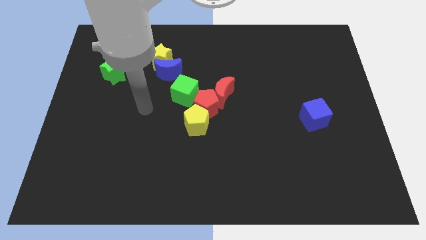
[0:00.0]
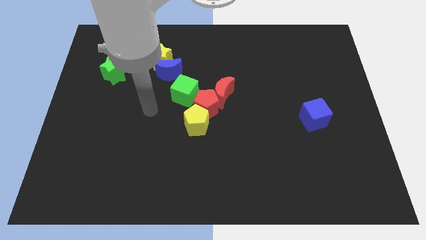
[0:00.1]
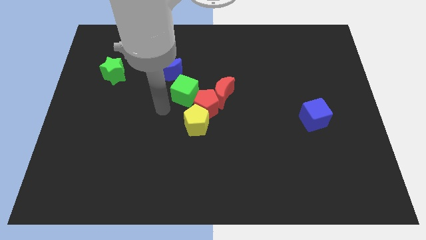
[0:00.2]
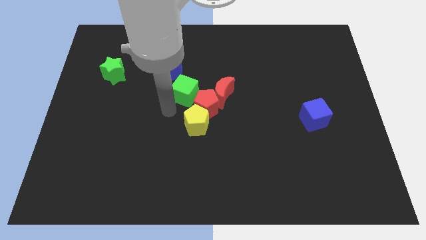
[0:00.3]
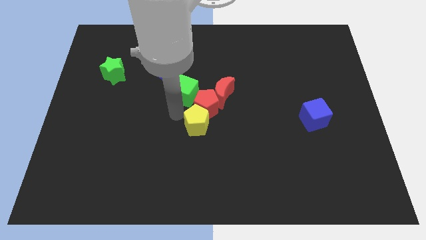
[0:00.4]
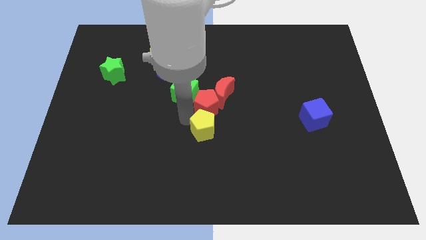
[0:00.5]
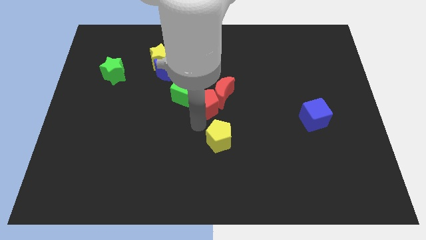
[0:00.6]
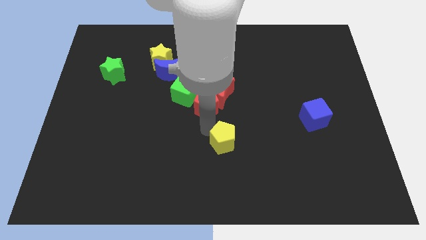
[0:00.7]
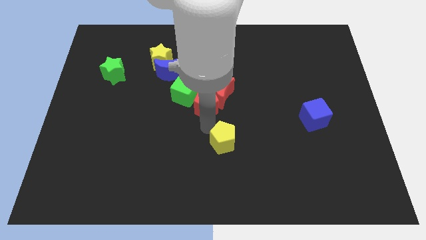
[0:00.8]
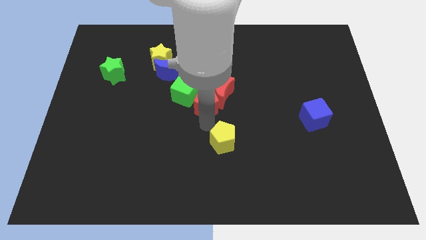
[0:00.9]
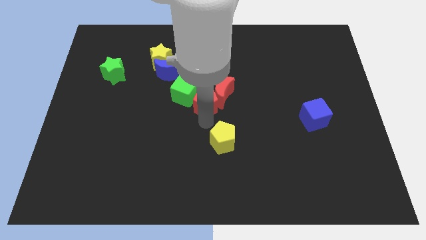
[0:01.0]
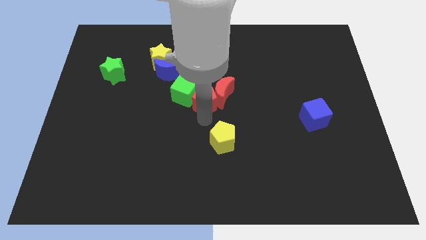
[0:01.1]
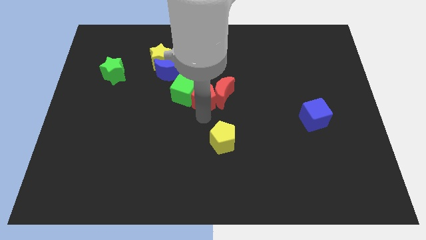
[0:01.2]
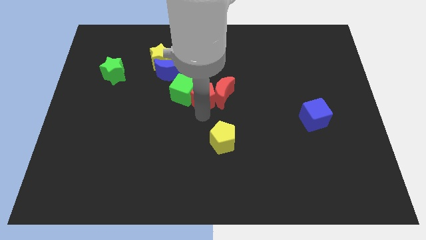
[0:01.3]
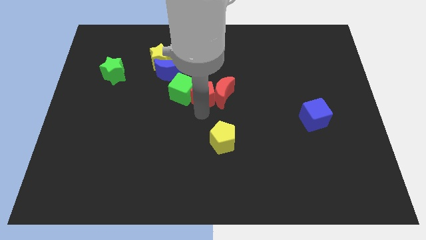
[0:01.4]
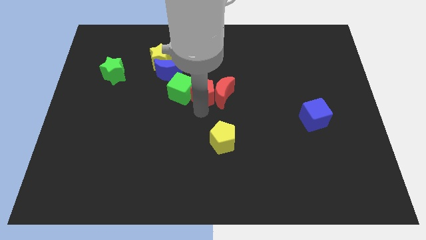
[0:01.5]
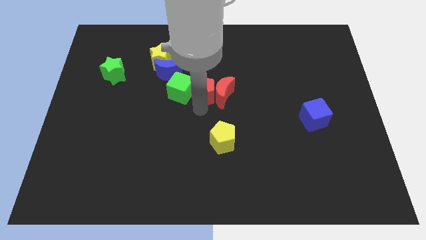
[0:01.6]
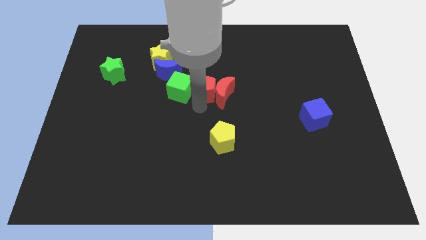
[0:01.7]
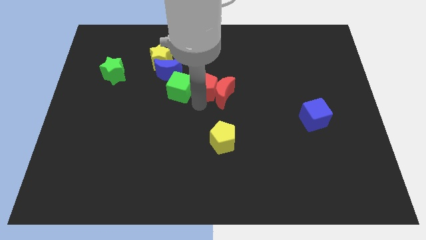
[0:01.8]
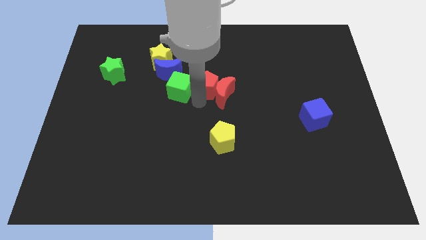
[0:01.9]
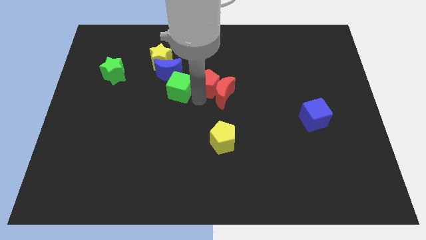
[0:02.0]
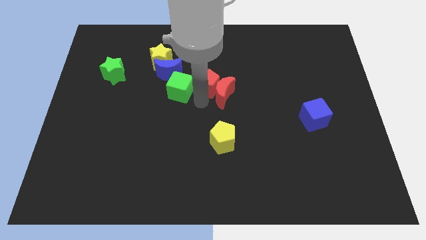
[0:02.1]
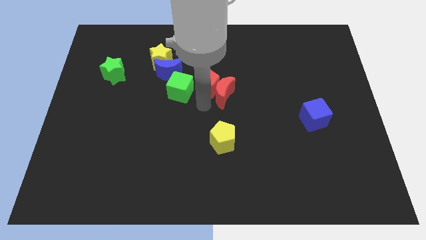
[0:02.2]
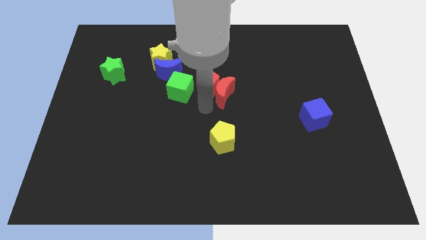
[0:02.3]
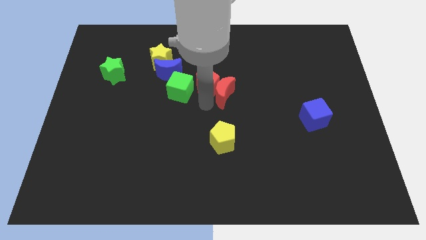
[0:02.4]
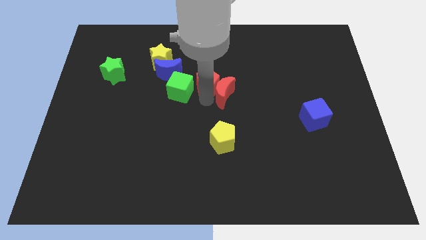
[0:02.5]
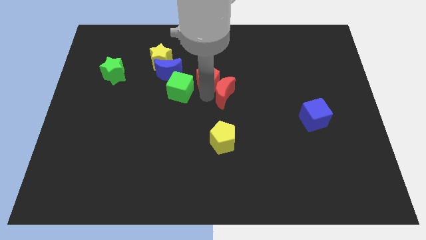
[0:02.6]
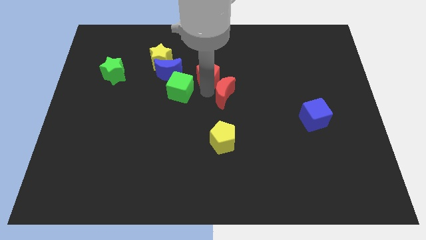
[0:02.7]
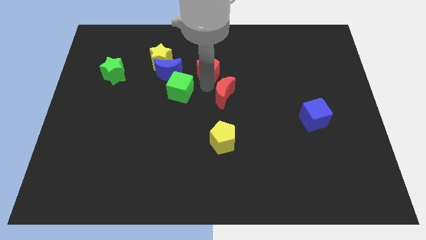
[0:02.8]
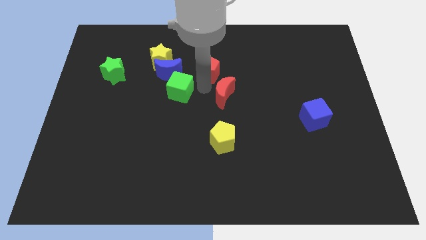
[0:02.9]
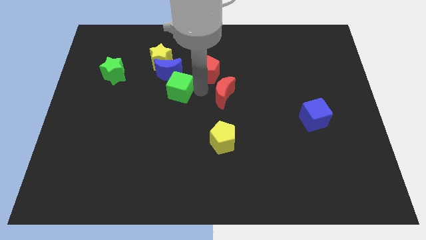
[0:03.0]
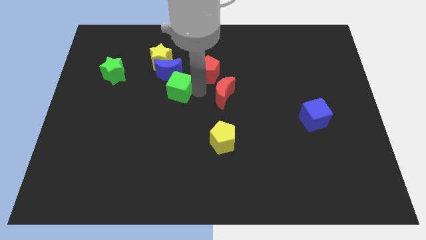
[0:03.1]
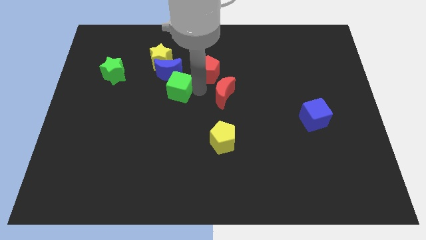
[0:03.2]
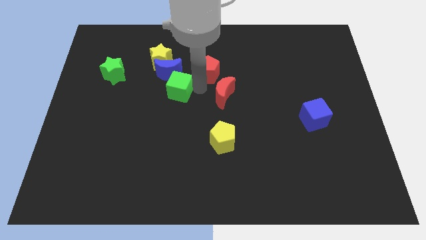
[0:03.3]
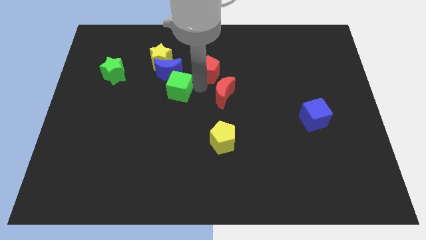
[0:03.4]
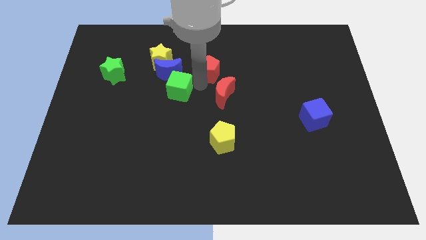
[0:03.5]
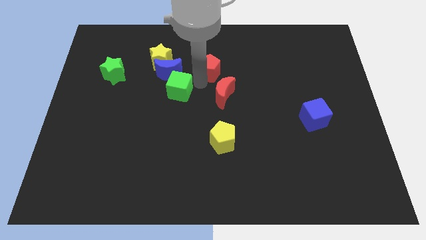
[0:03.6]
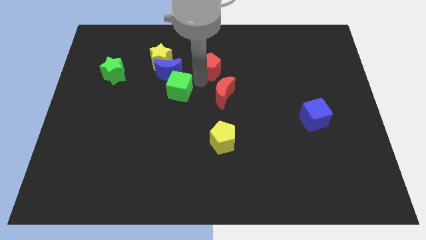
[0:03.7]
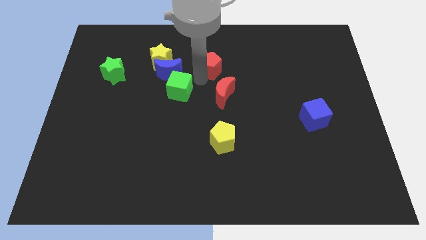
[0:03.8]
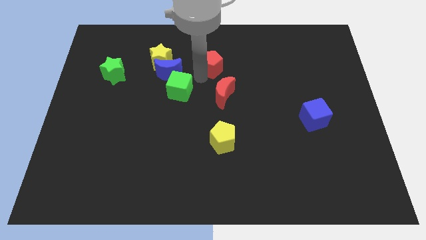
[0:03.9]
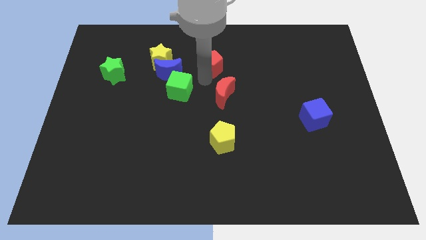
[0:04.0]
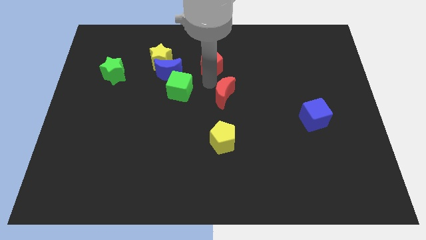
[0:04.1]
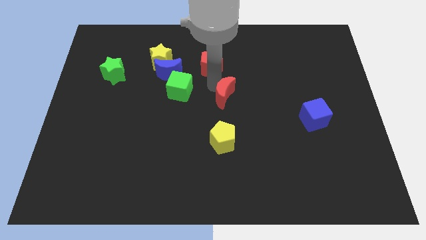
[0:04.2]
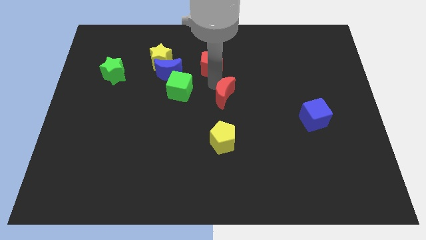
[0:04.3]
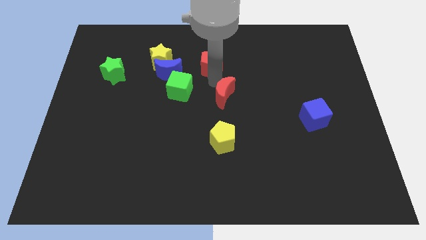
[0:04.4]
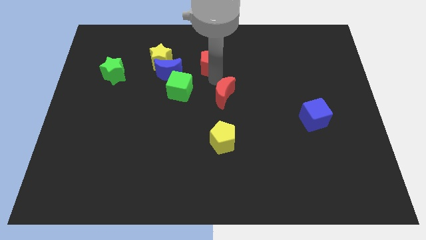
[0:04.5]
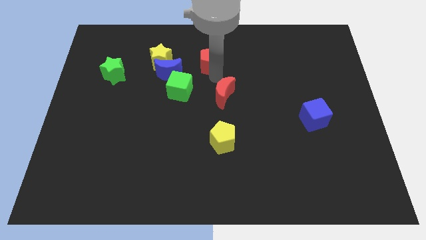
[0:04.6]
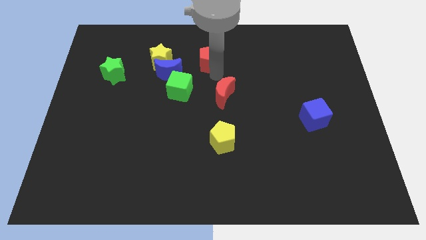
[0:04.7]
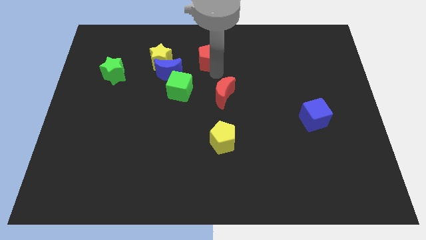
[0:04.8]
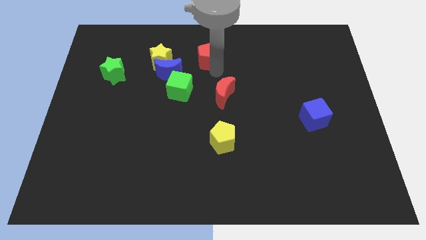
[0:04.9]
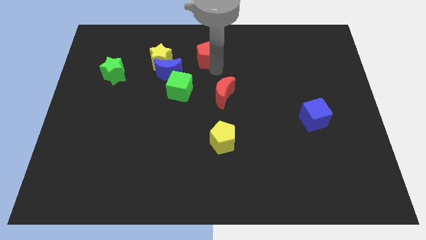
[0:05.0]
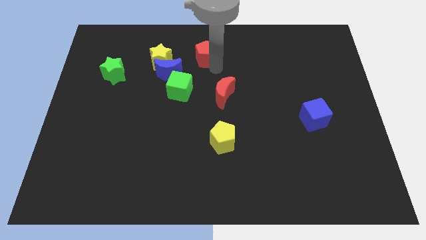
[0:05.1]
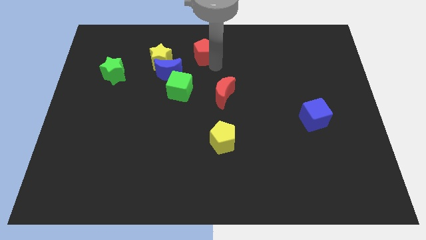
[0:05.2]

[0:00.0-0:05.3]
put the red pentagon to the towards your base
